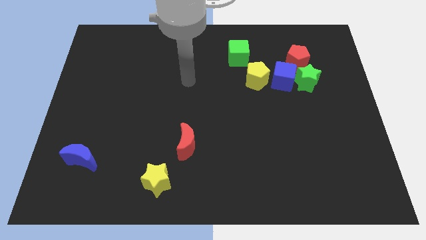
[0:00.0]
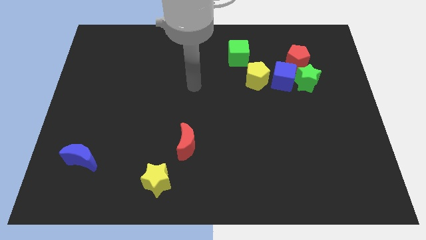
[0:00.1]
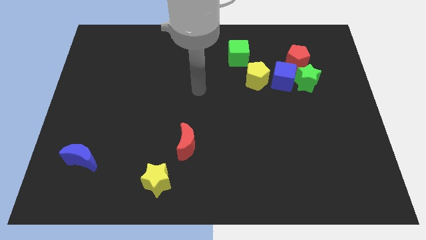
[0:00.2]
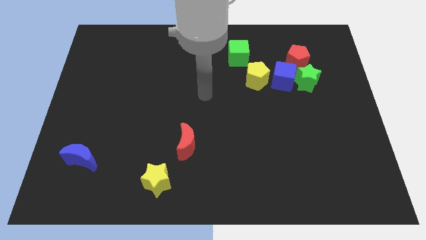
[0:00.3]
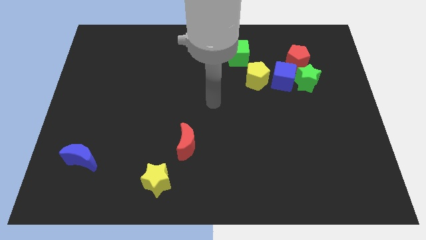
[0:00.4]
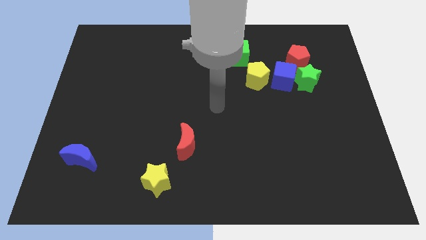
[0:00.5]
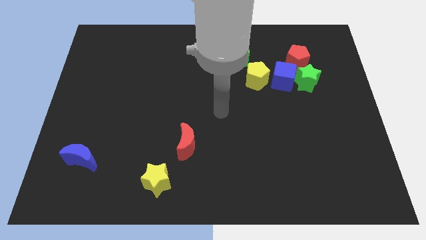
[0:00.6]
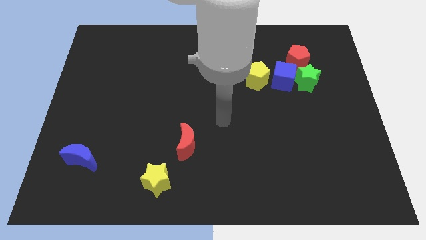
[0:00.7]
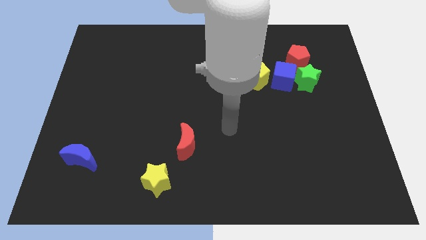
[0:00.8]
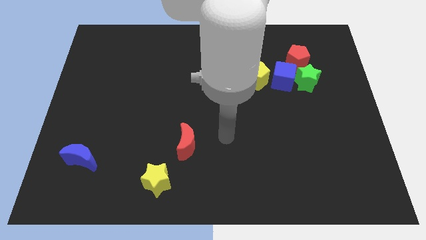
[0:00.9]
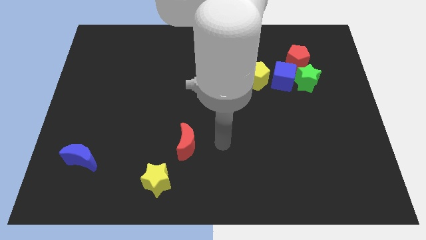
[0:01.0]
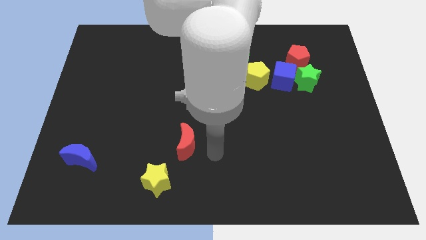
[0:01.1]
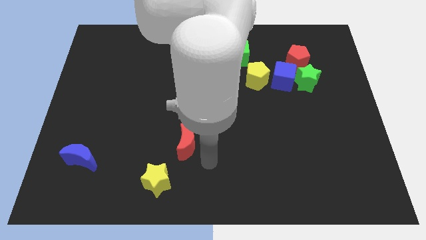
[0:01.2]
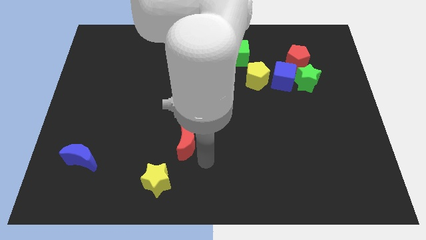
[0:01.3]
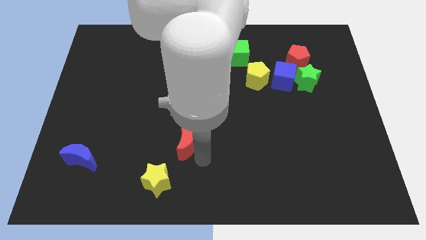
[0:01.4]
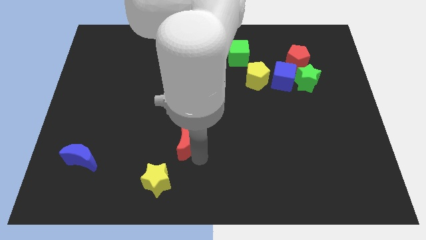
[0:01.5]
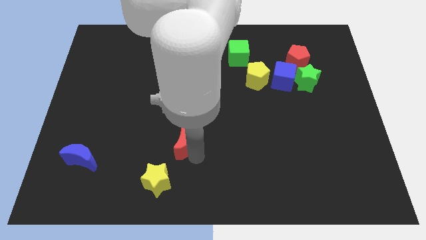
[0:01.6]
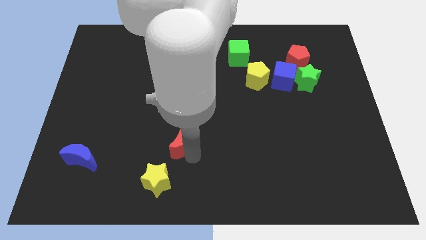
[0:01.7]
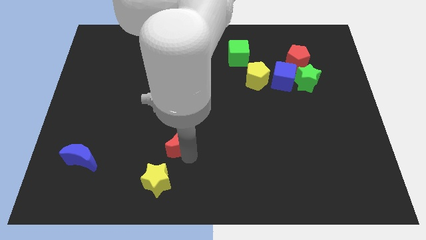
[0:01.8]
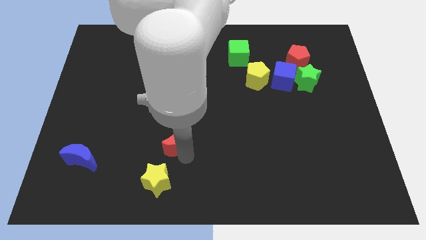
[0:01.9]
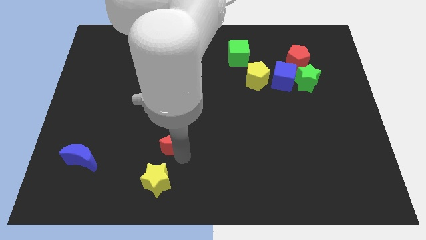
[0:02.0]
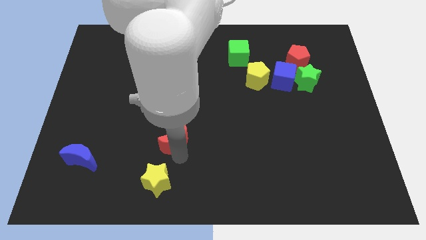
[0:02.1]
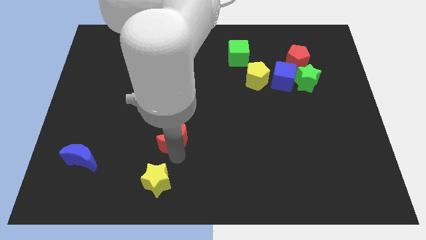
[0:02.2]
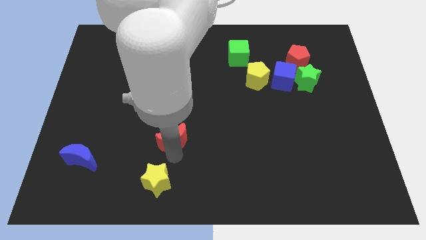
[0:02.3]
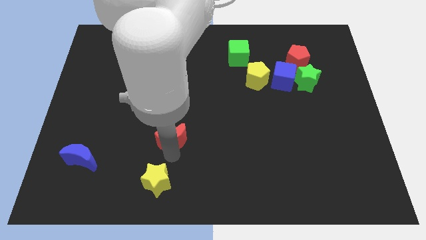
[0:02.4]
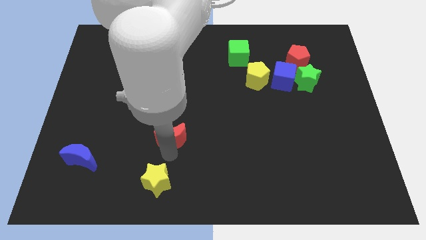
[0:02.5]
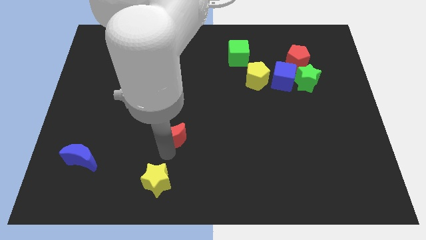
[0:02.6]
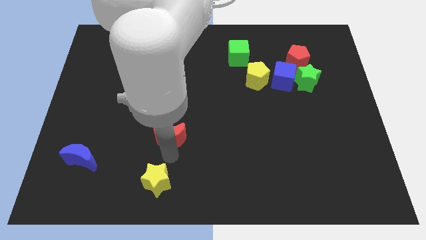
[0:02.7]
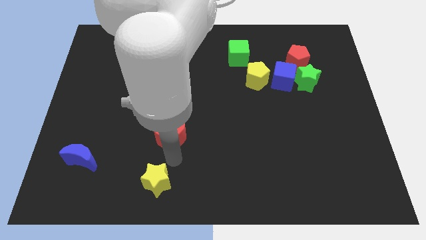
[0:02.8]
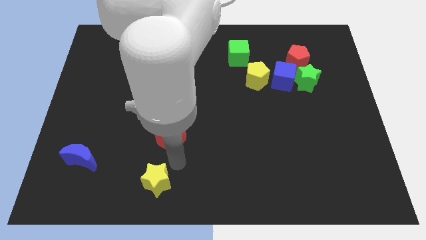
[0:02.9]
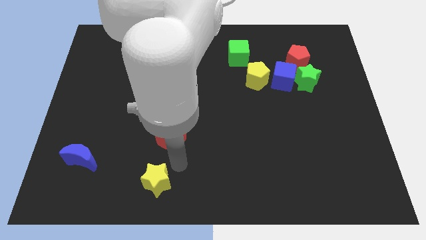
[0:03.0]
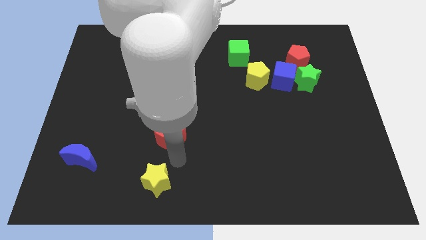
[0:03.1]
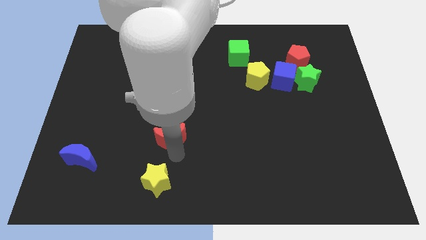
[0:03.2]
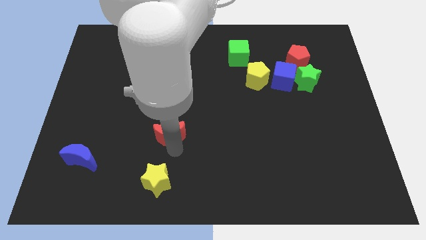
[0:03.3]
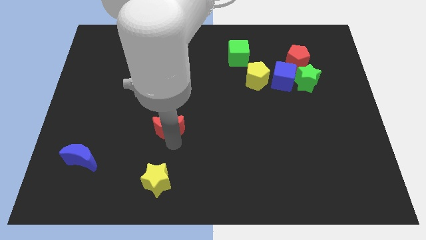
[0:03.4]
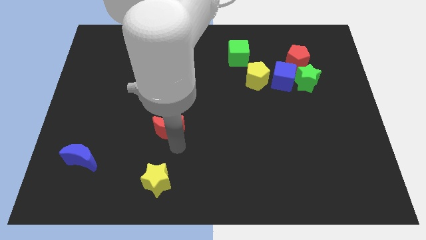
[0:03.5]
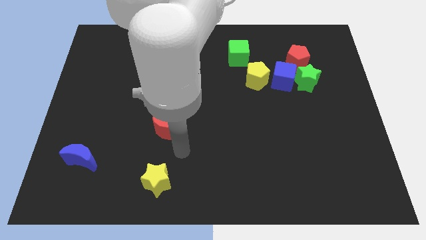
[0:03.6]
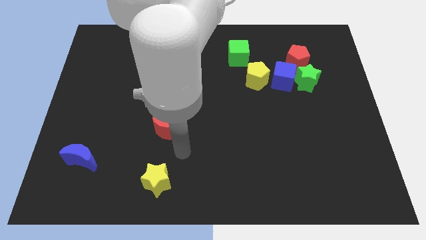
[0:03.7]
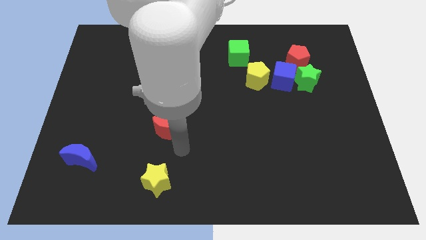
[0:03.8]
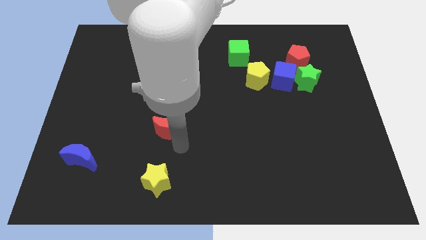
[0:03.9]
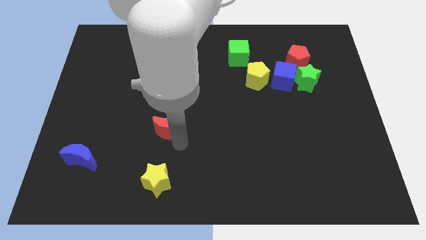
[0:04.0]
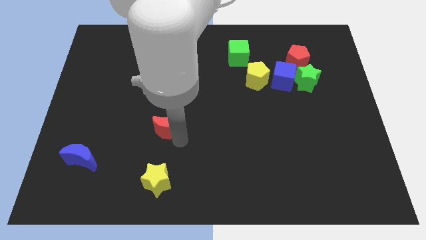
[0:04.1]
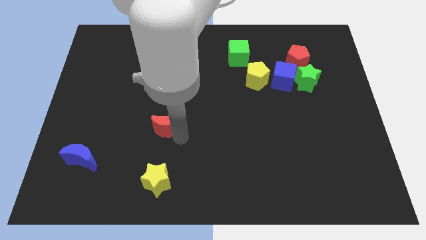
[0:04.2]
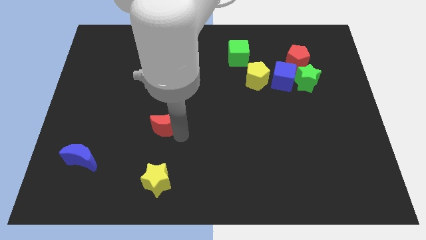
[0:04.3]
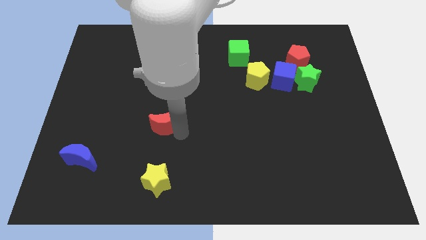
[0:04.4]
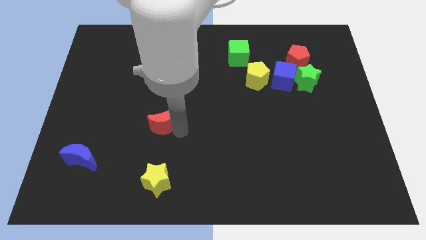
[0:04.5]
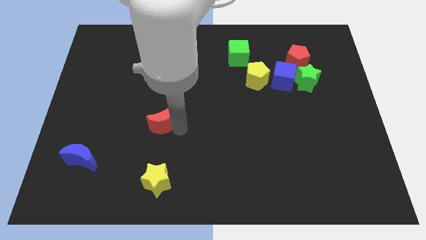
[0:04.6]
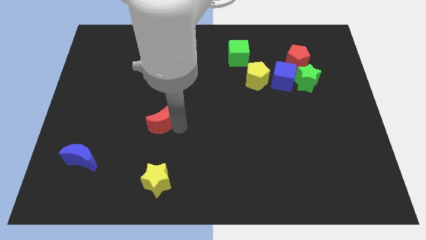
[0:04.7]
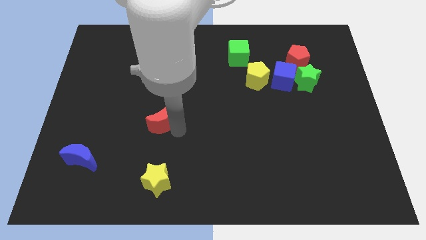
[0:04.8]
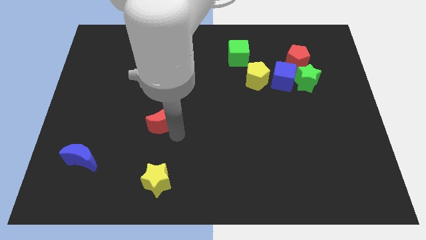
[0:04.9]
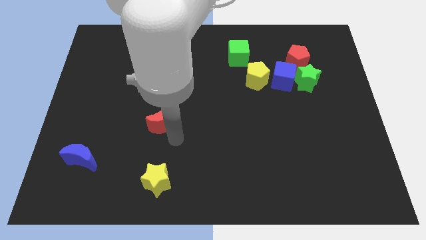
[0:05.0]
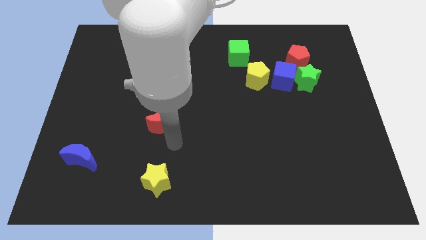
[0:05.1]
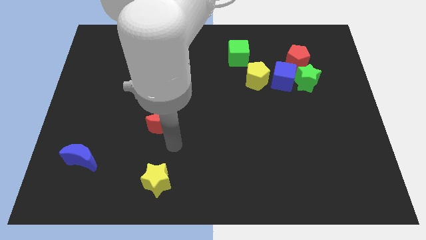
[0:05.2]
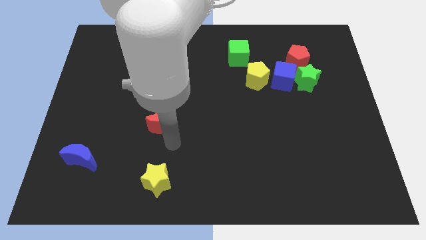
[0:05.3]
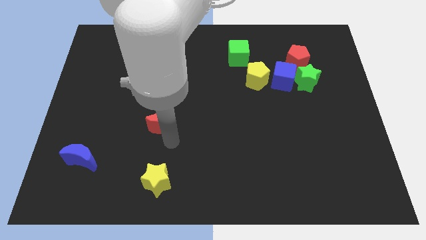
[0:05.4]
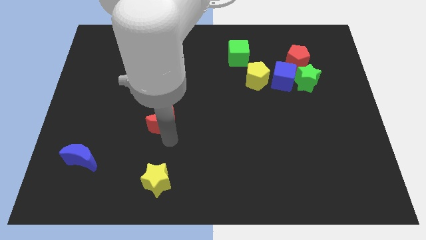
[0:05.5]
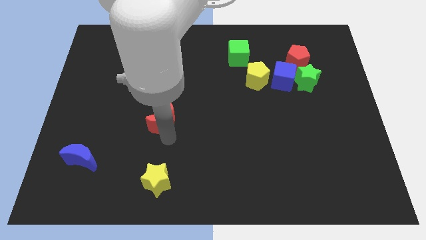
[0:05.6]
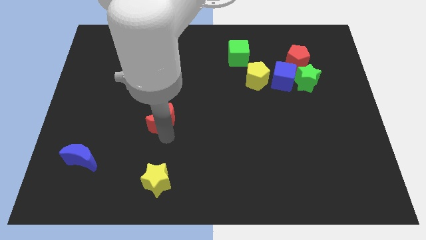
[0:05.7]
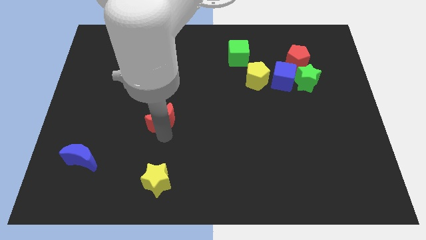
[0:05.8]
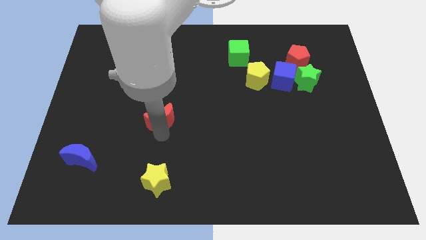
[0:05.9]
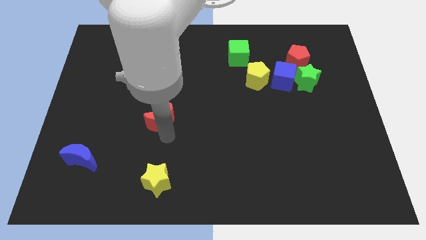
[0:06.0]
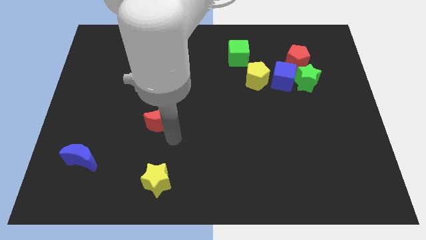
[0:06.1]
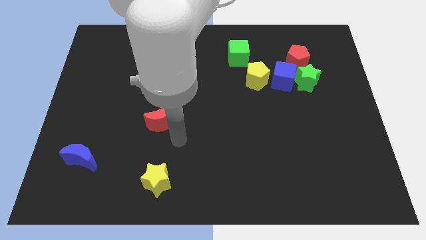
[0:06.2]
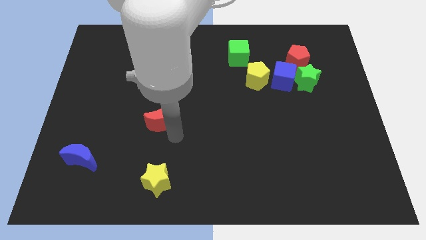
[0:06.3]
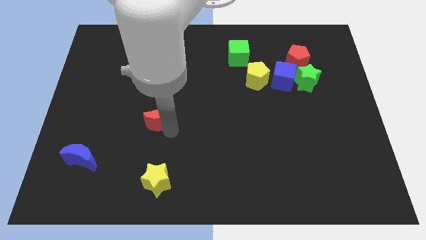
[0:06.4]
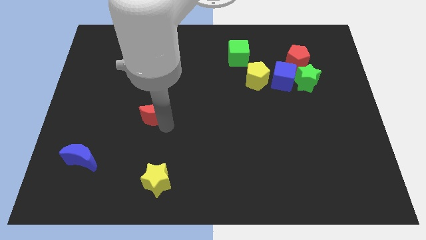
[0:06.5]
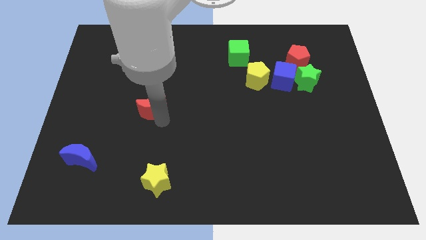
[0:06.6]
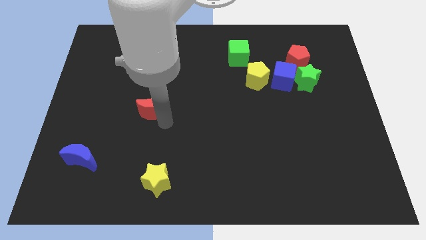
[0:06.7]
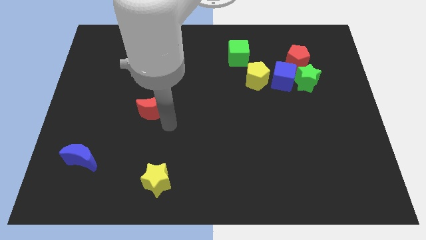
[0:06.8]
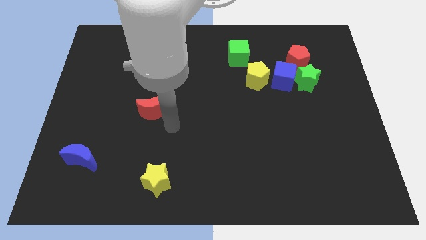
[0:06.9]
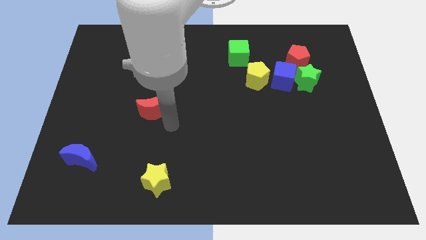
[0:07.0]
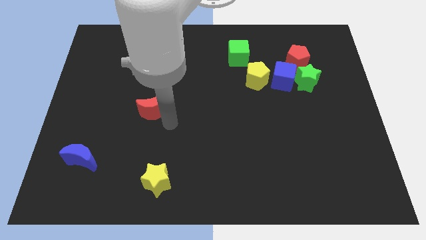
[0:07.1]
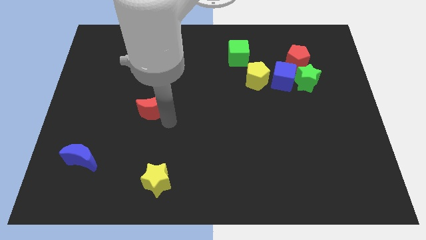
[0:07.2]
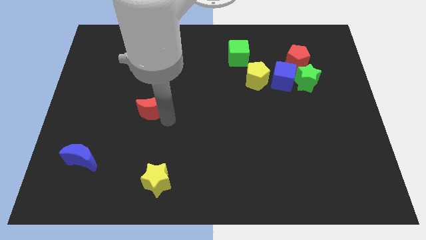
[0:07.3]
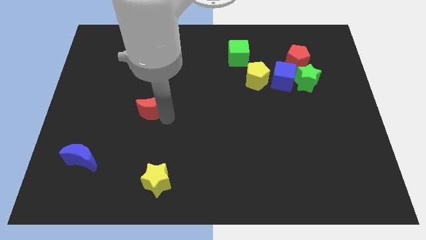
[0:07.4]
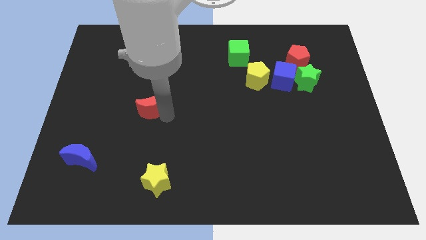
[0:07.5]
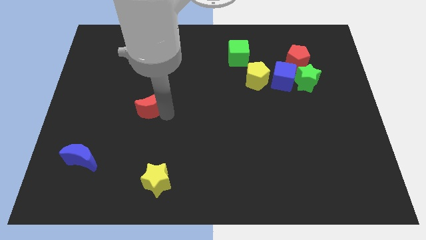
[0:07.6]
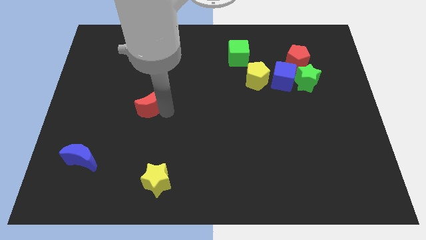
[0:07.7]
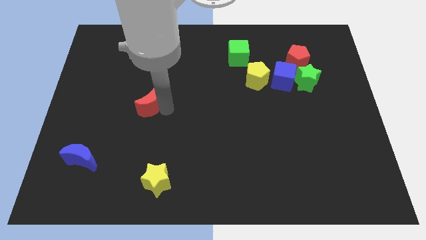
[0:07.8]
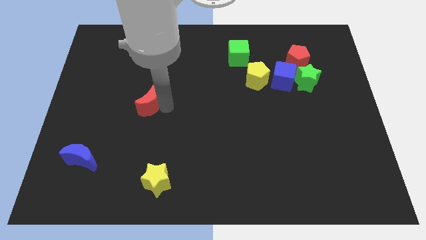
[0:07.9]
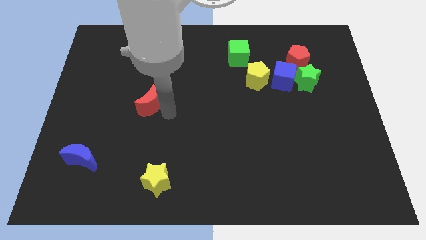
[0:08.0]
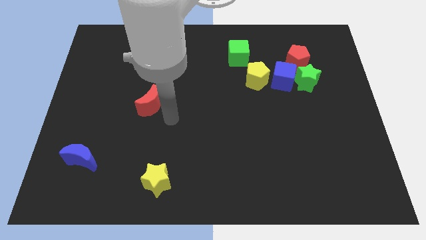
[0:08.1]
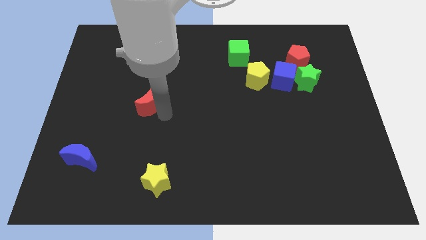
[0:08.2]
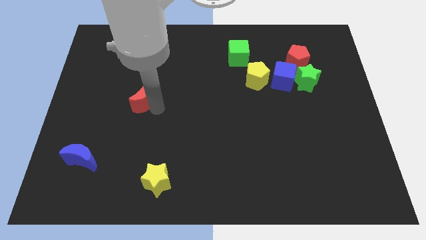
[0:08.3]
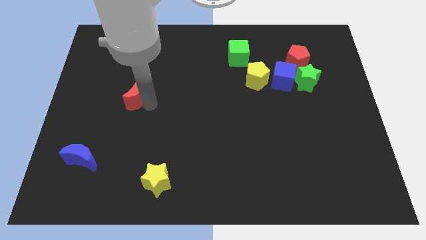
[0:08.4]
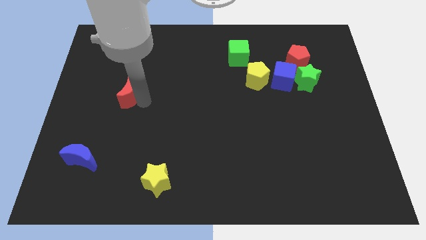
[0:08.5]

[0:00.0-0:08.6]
slide the red moon upwards and left diagonally
